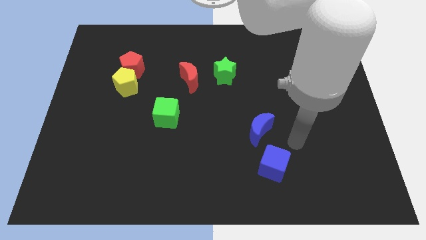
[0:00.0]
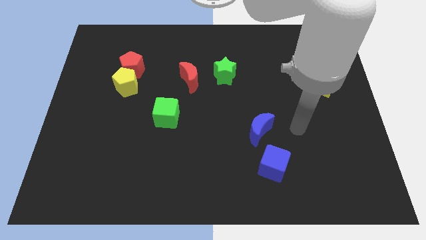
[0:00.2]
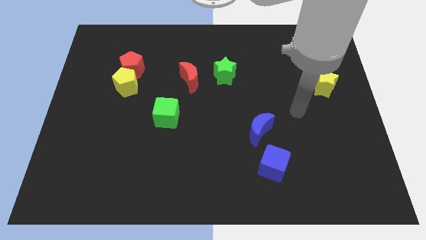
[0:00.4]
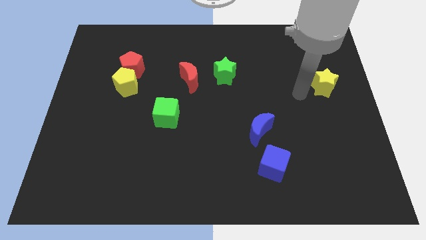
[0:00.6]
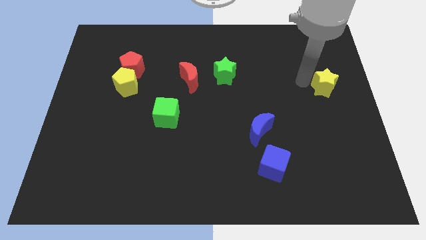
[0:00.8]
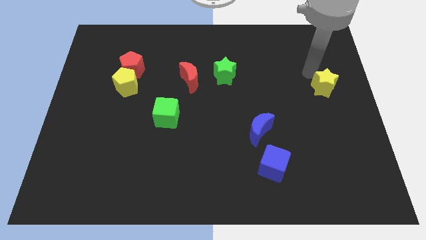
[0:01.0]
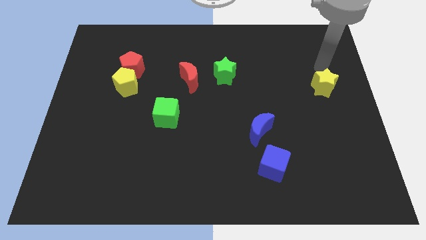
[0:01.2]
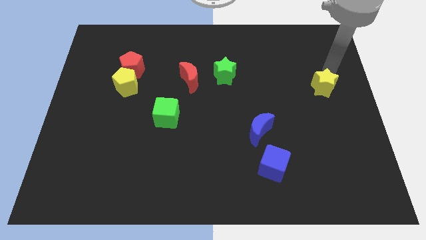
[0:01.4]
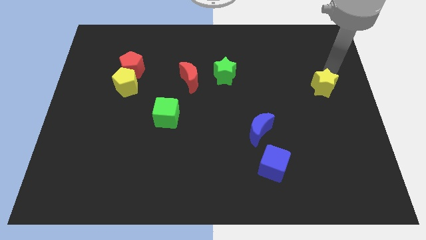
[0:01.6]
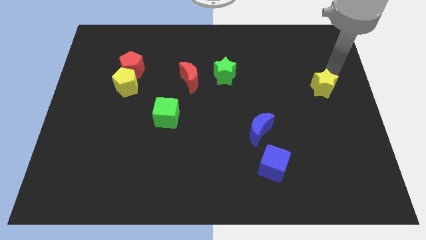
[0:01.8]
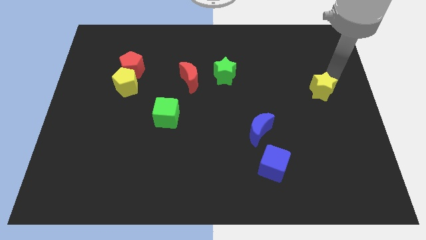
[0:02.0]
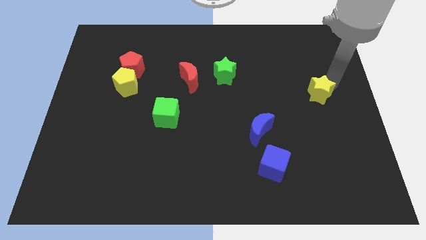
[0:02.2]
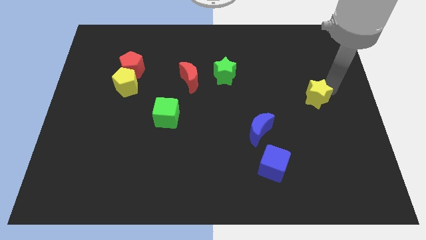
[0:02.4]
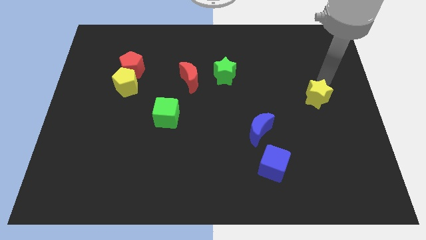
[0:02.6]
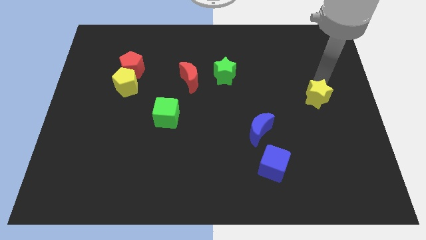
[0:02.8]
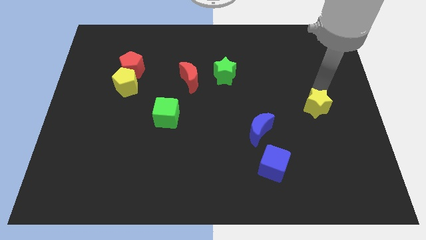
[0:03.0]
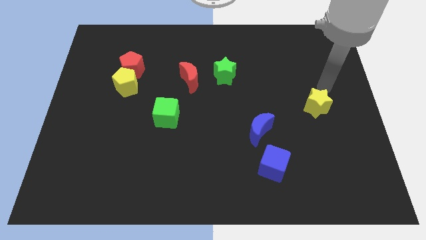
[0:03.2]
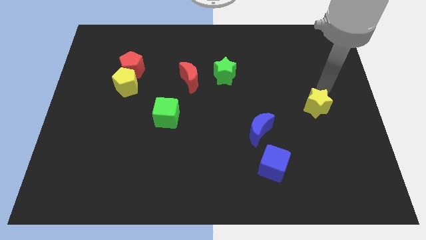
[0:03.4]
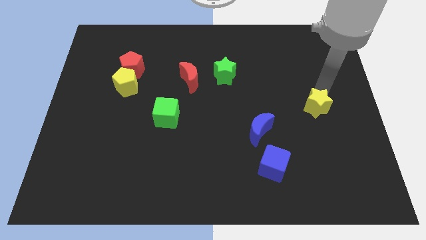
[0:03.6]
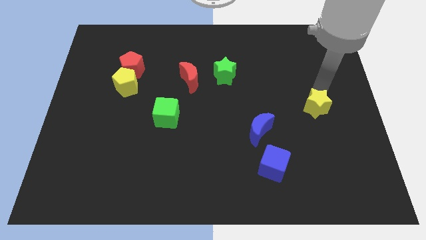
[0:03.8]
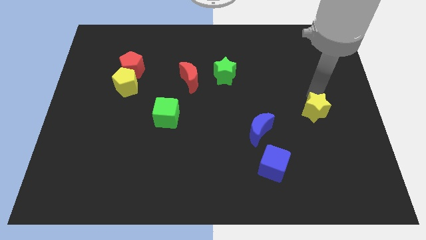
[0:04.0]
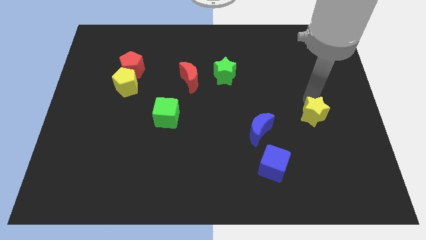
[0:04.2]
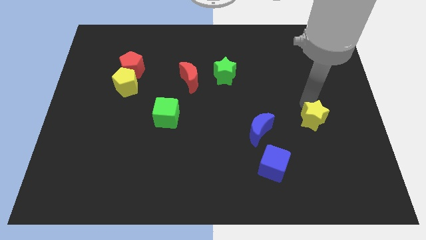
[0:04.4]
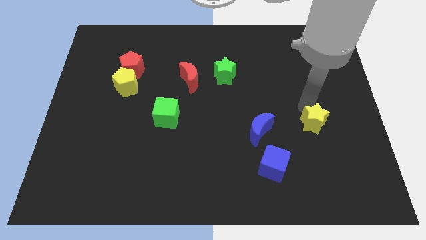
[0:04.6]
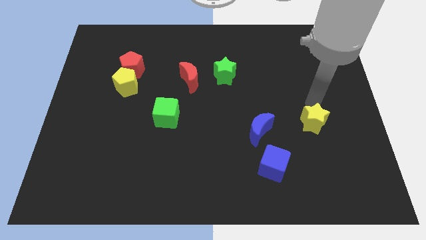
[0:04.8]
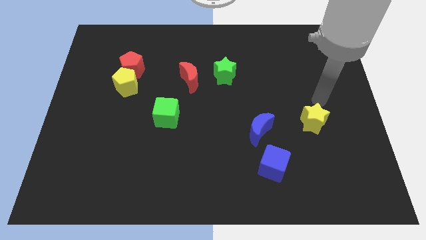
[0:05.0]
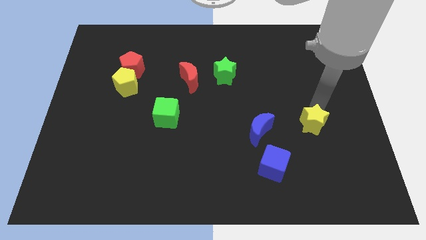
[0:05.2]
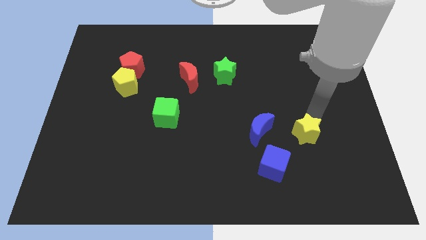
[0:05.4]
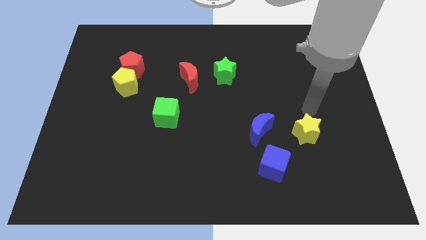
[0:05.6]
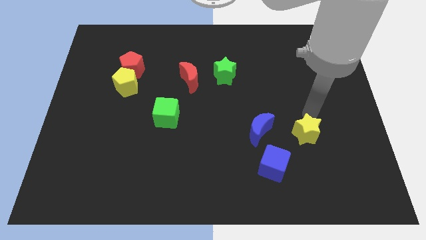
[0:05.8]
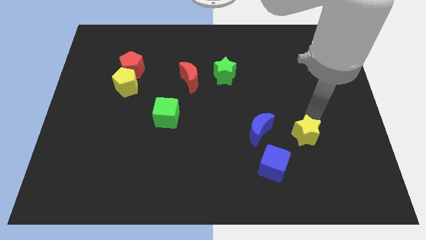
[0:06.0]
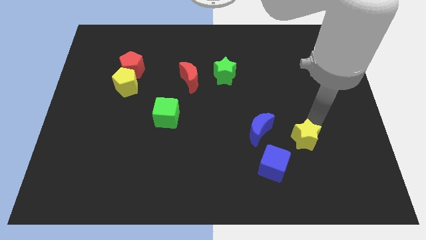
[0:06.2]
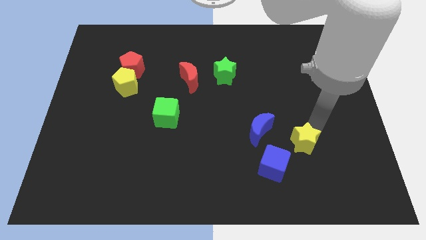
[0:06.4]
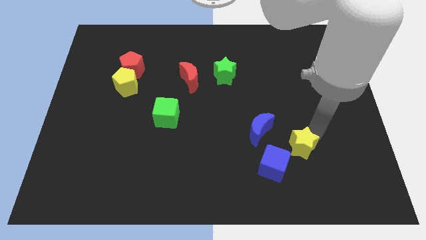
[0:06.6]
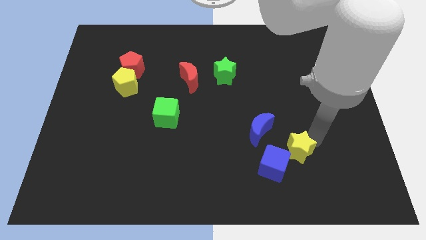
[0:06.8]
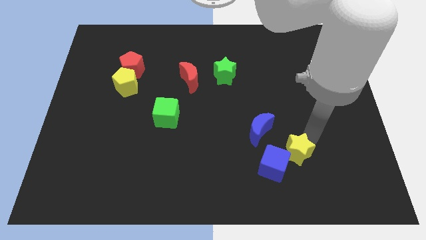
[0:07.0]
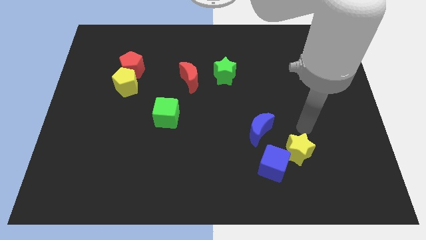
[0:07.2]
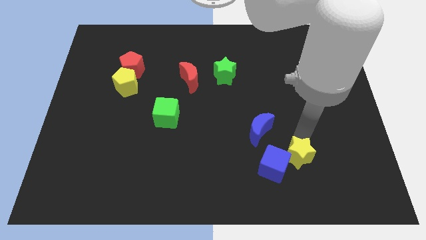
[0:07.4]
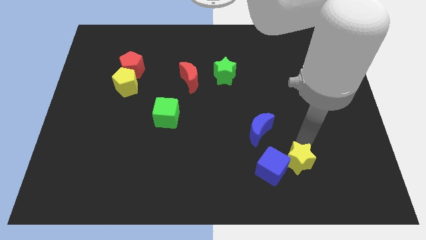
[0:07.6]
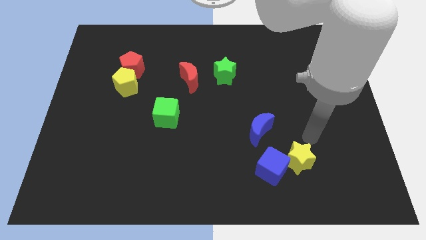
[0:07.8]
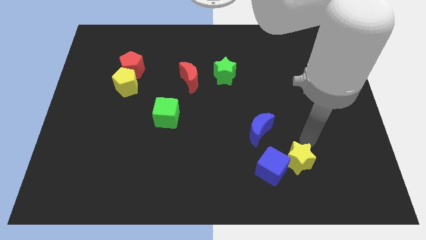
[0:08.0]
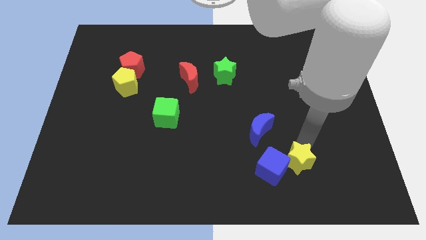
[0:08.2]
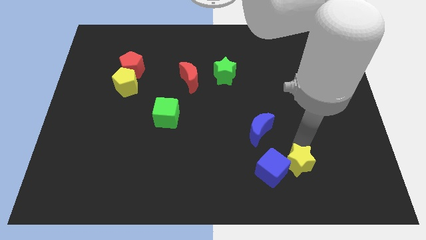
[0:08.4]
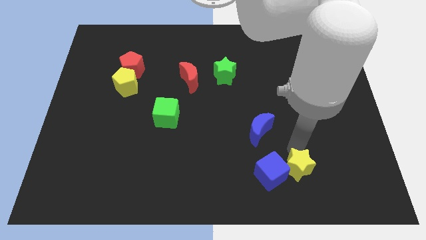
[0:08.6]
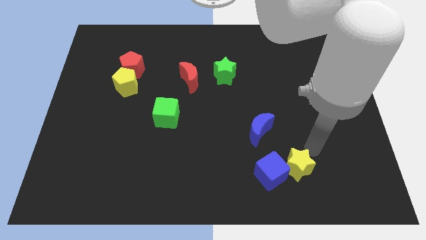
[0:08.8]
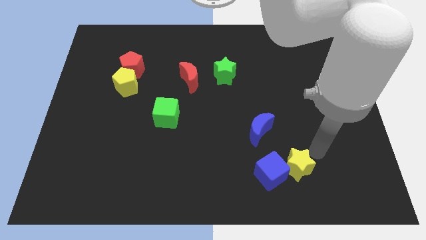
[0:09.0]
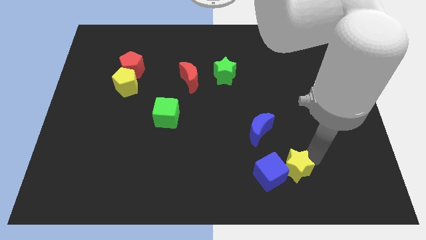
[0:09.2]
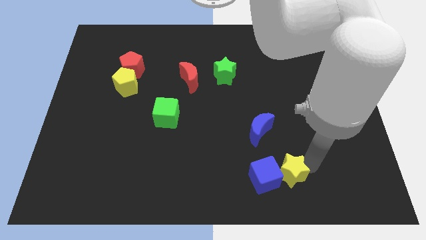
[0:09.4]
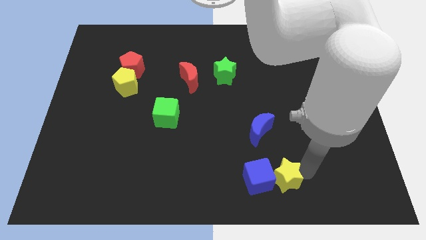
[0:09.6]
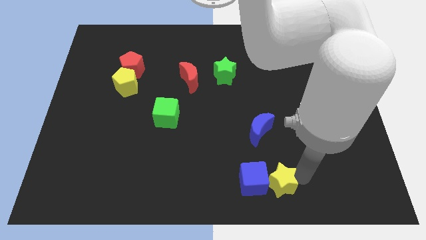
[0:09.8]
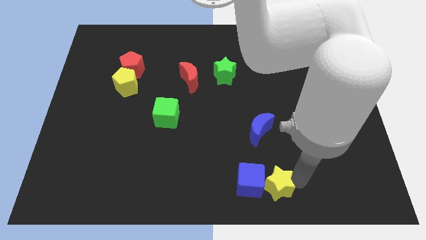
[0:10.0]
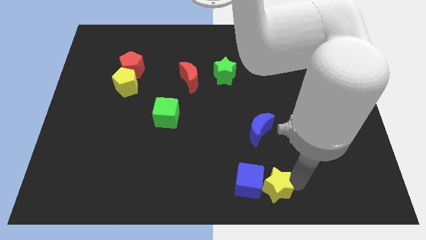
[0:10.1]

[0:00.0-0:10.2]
slide the yellow star to the bottom

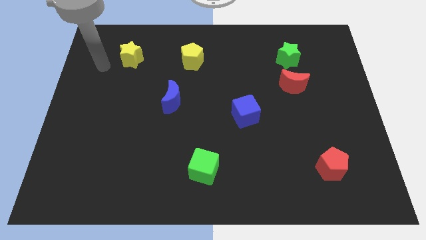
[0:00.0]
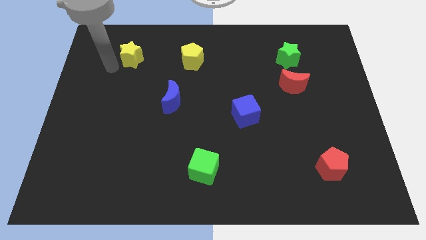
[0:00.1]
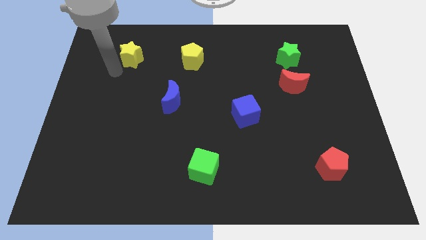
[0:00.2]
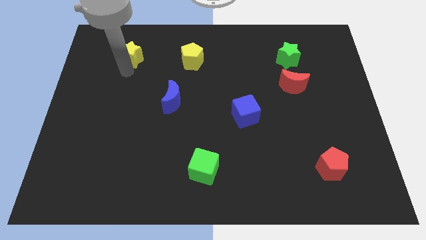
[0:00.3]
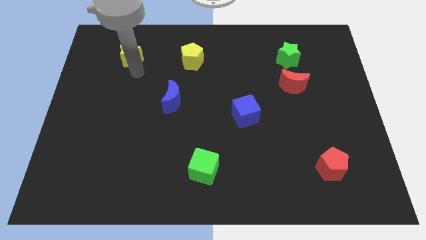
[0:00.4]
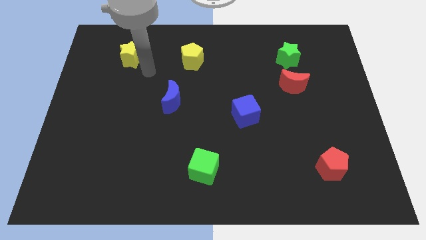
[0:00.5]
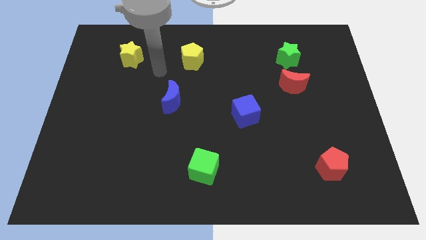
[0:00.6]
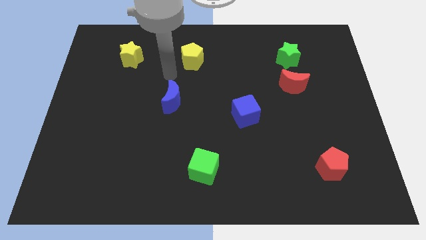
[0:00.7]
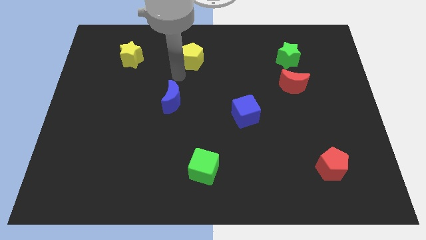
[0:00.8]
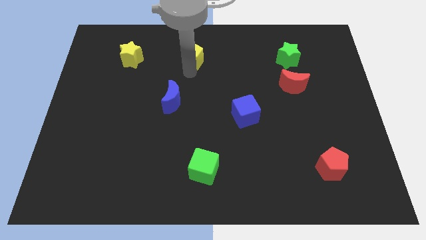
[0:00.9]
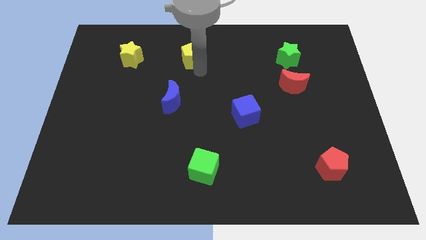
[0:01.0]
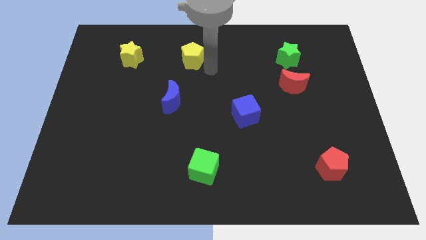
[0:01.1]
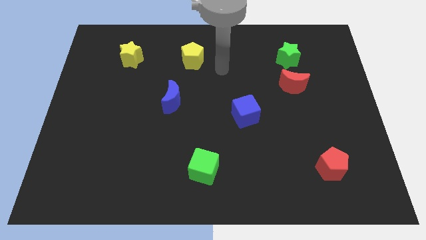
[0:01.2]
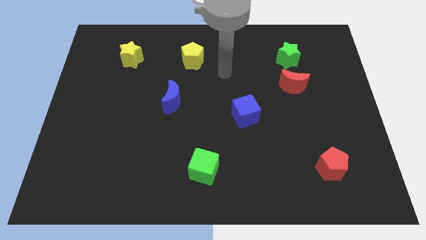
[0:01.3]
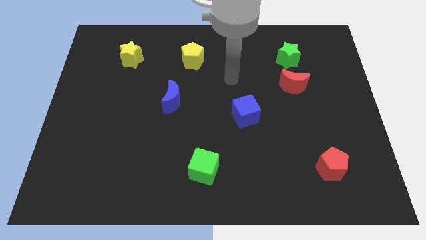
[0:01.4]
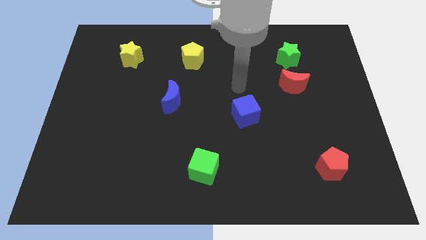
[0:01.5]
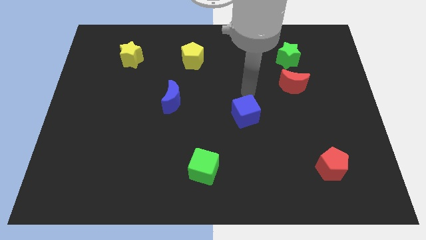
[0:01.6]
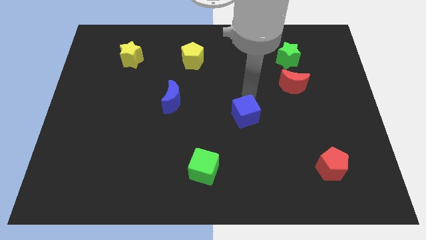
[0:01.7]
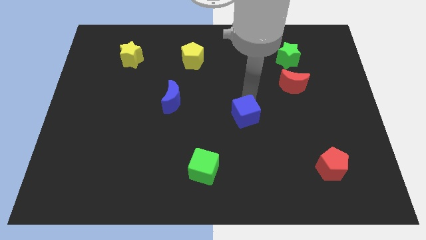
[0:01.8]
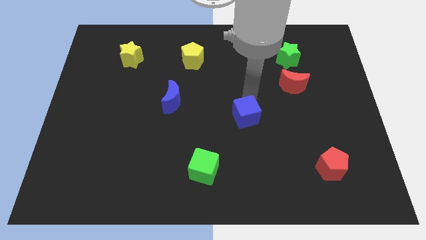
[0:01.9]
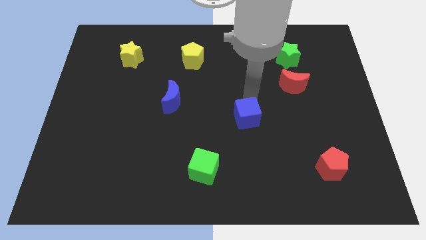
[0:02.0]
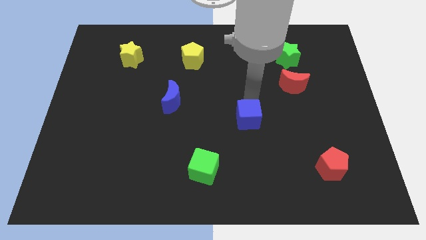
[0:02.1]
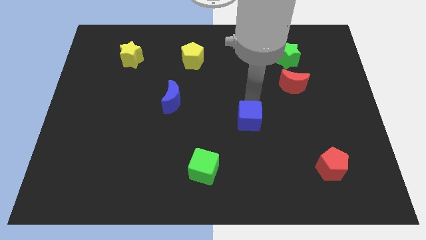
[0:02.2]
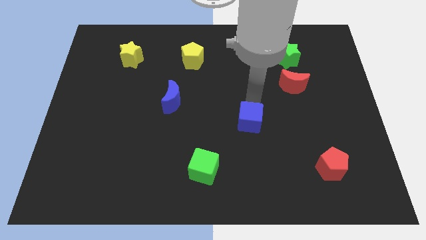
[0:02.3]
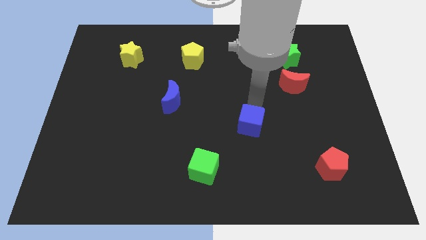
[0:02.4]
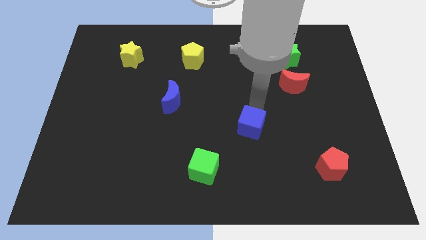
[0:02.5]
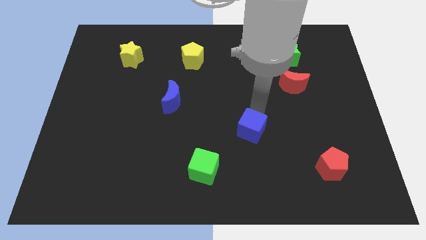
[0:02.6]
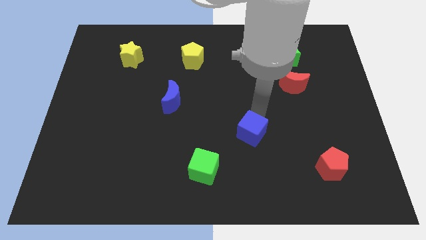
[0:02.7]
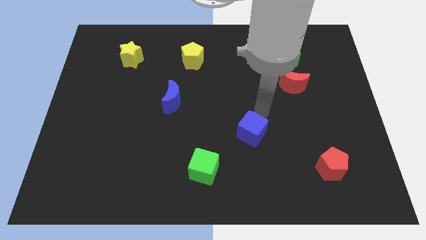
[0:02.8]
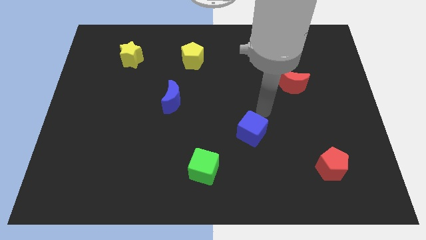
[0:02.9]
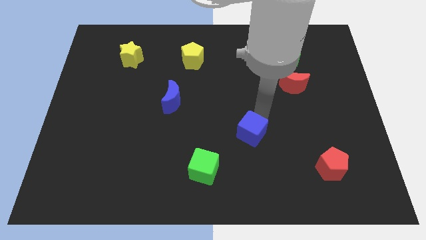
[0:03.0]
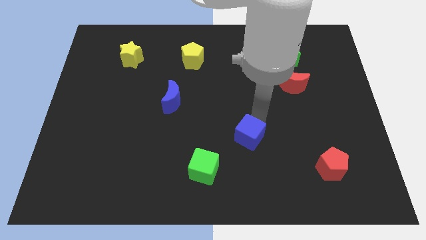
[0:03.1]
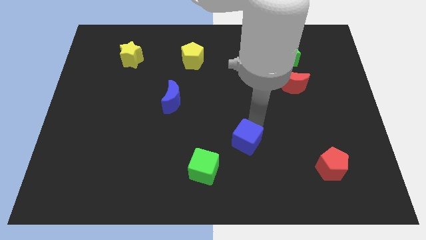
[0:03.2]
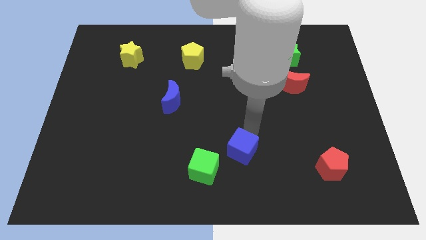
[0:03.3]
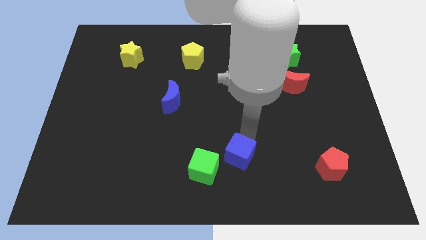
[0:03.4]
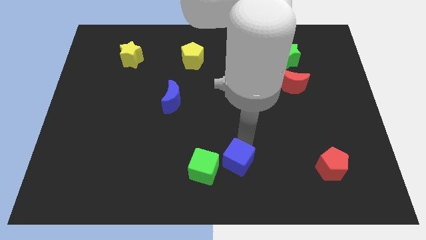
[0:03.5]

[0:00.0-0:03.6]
push the blue cube to the bottom side
